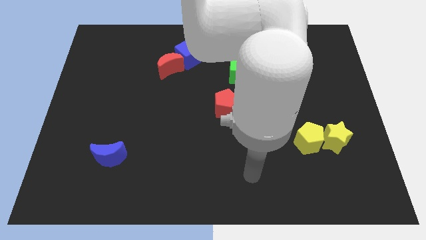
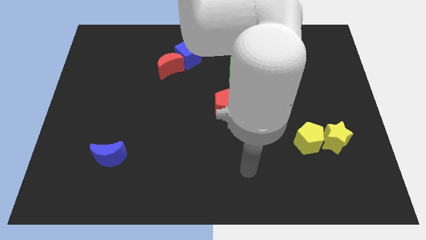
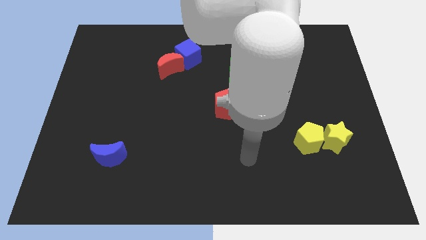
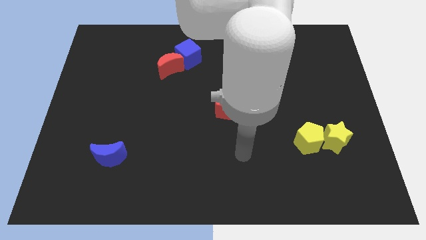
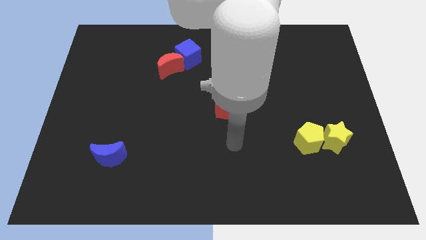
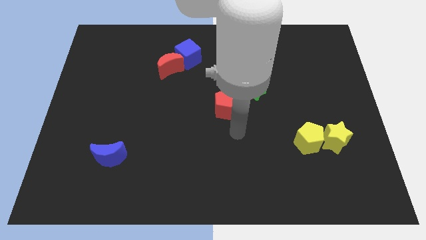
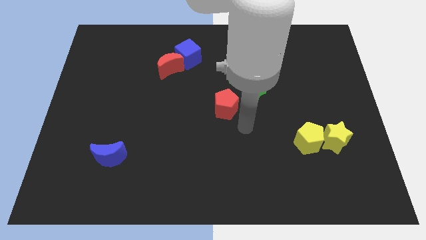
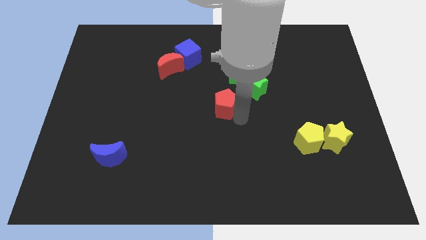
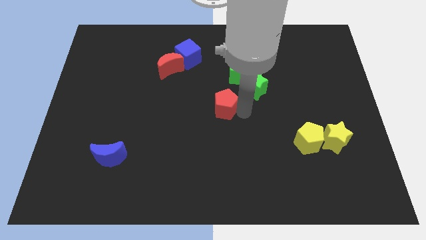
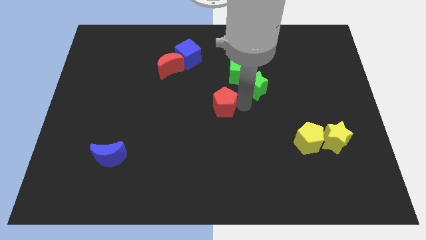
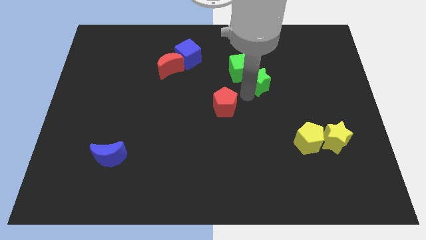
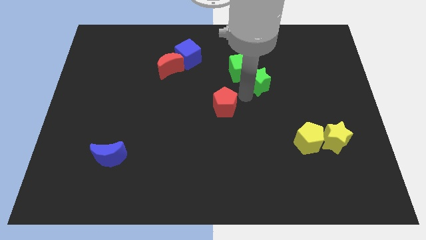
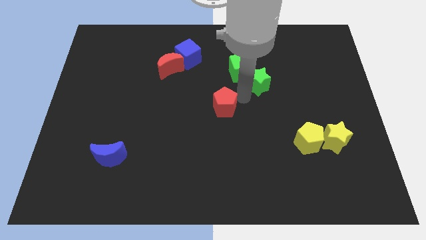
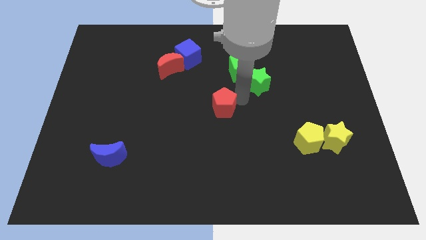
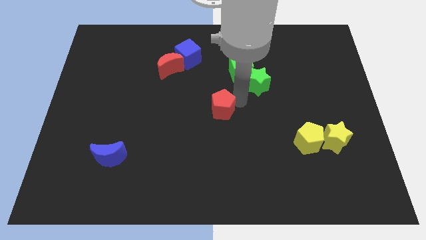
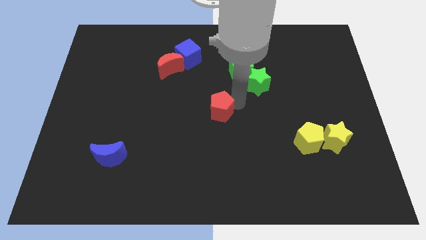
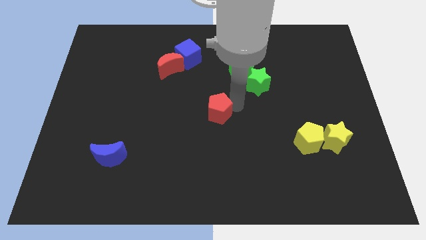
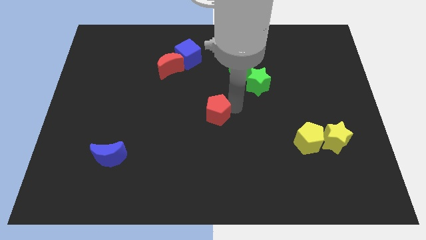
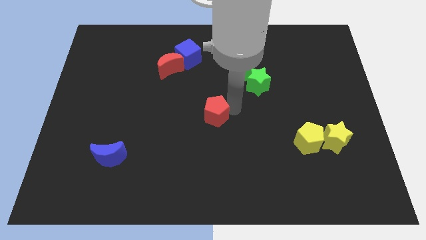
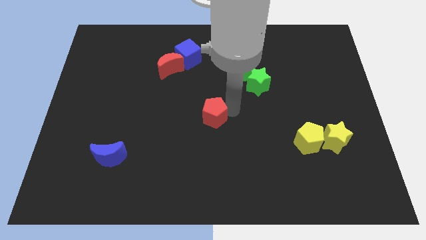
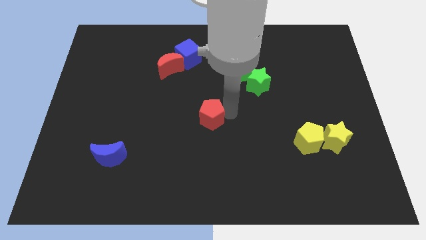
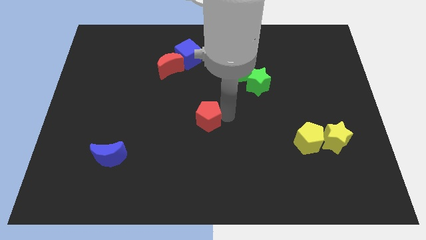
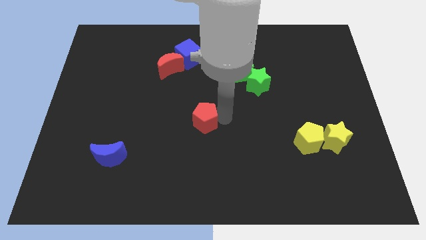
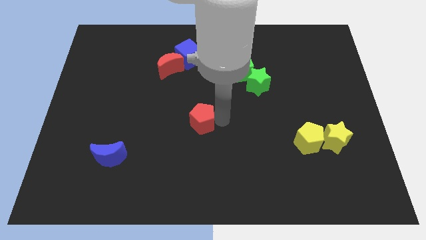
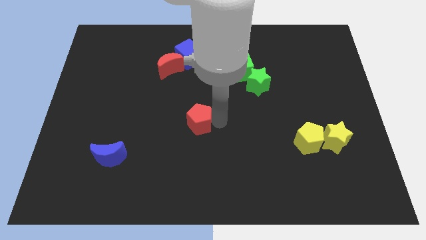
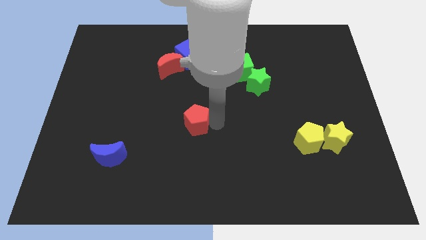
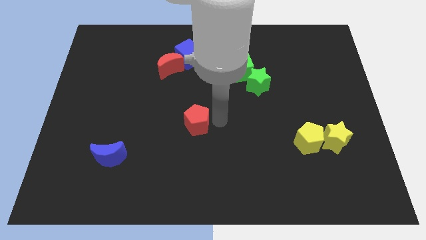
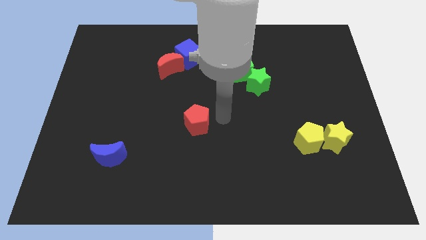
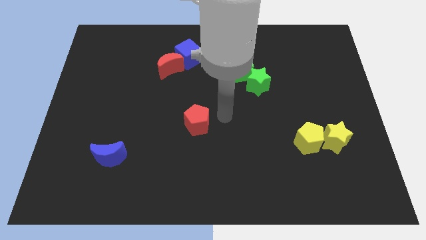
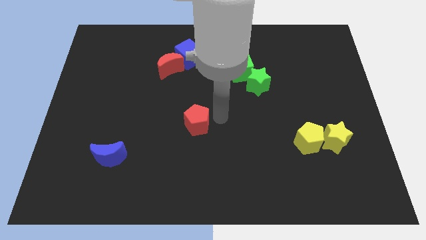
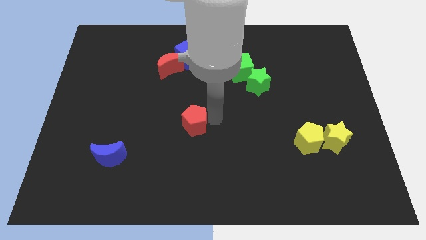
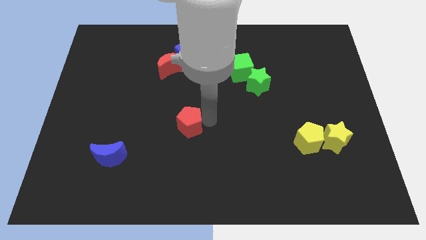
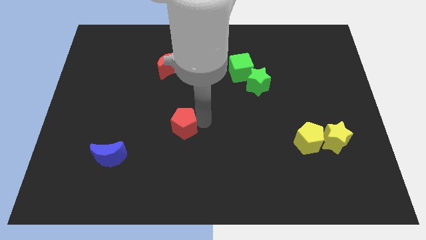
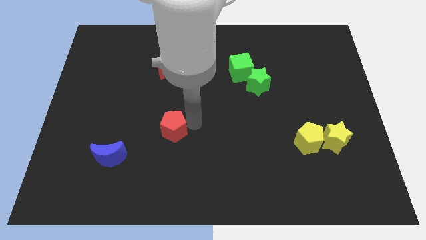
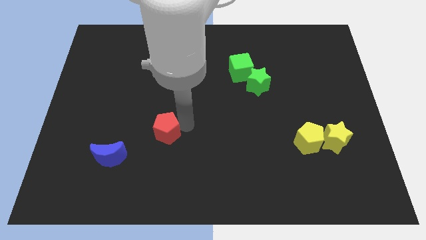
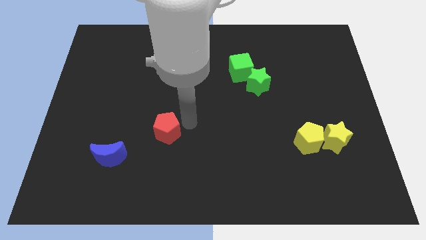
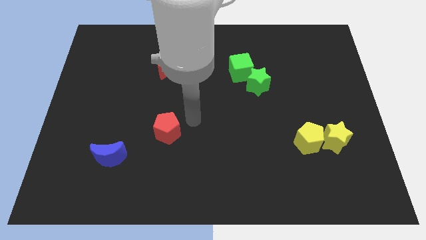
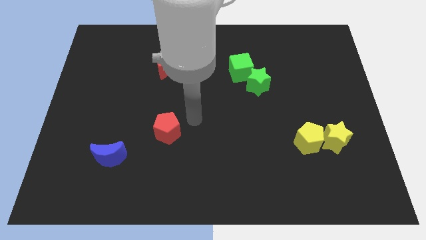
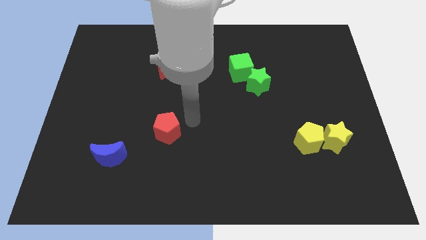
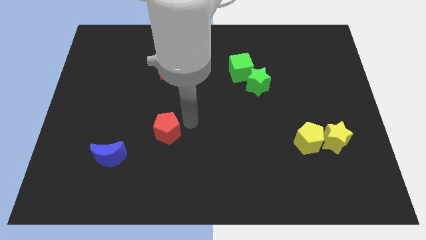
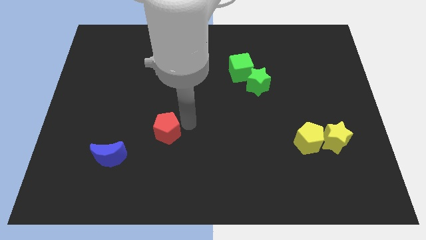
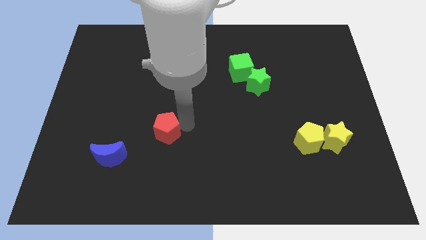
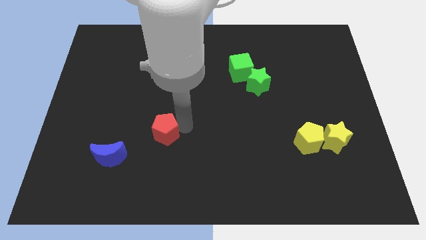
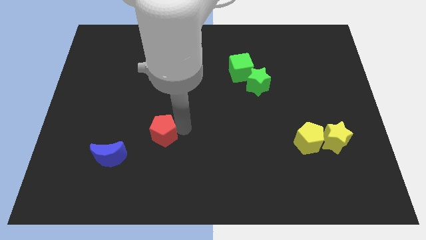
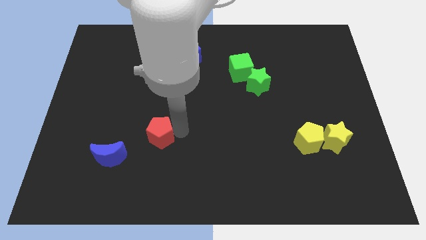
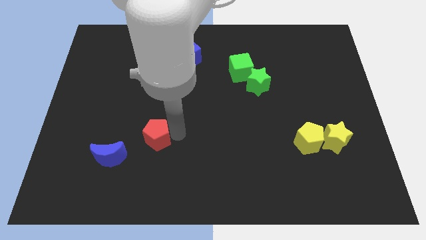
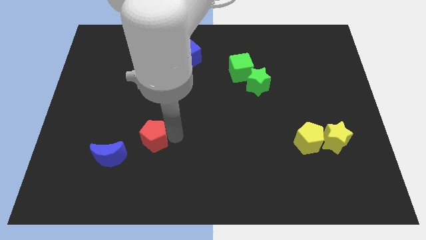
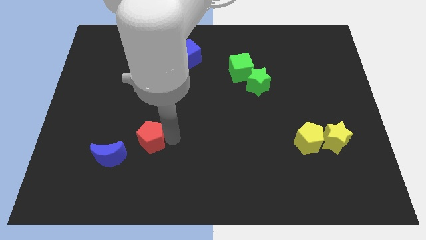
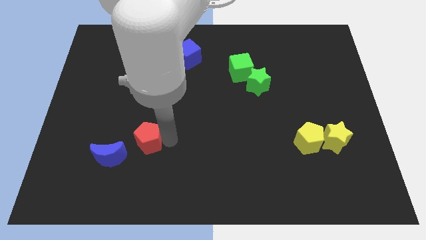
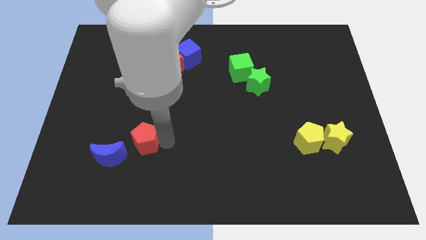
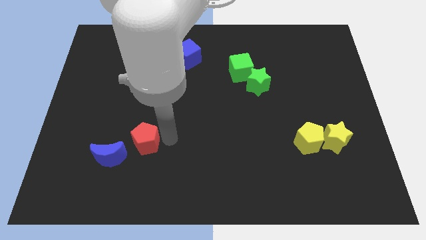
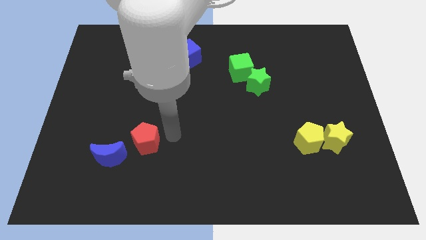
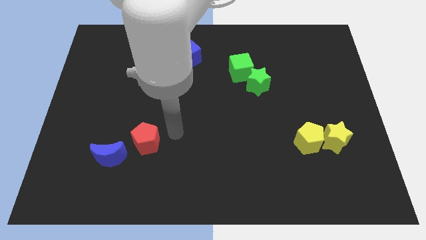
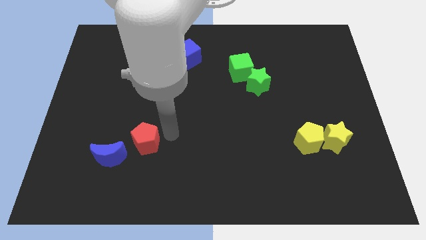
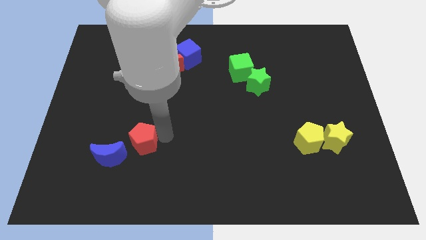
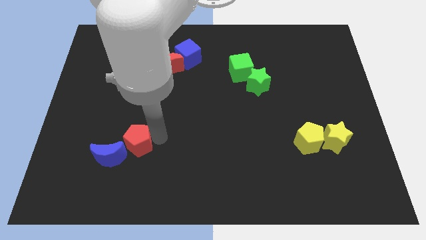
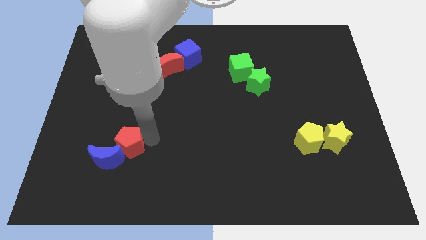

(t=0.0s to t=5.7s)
move the red pentagon close to the blue moon

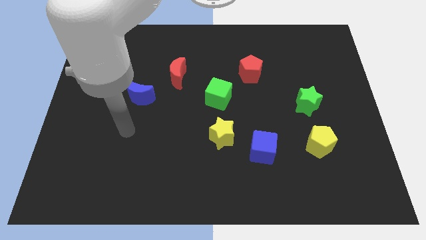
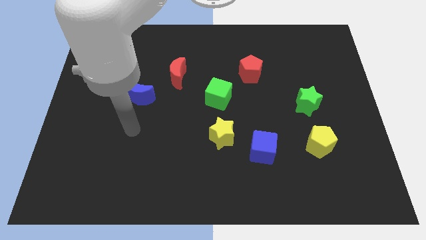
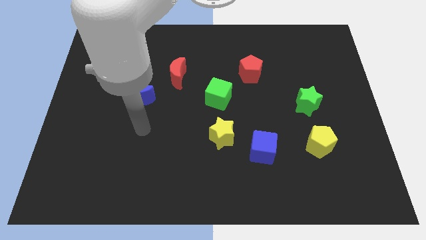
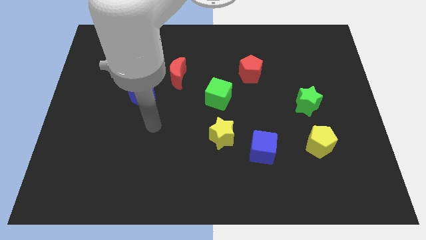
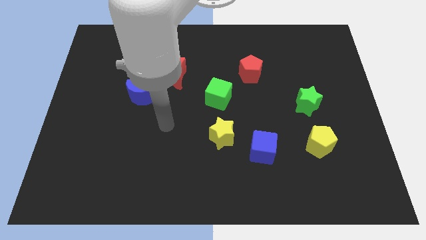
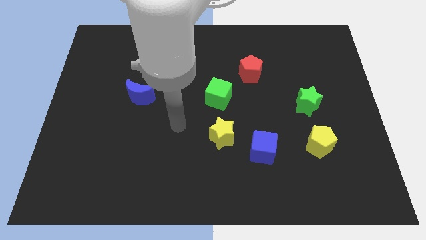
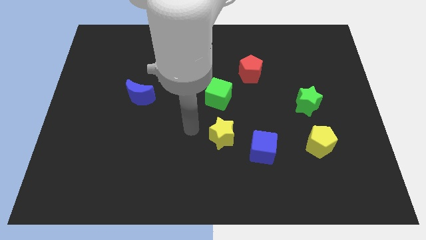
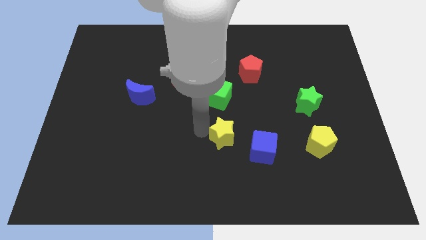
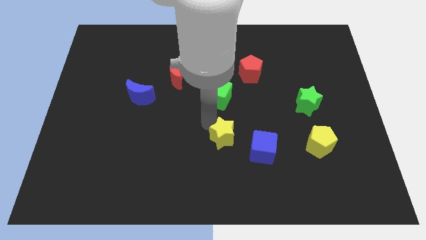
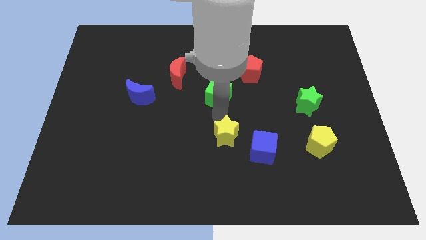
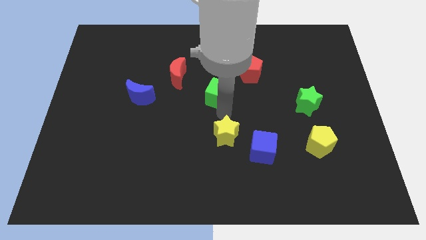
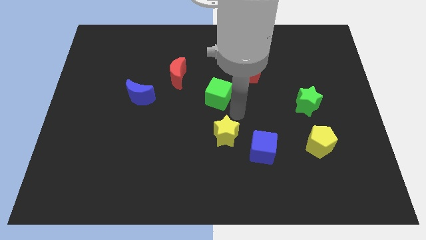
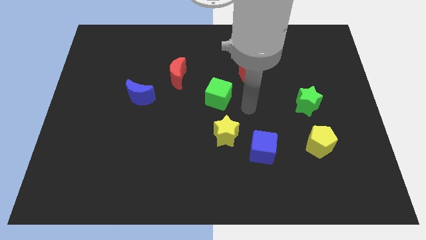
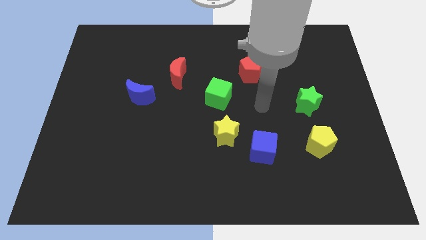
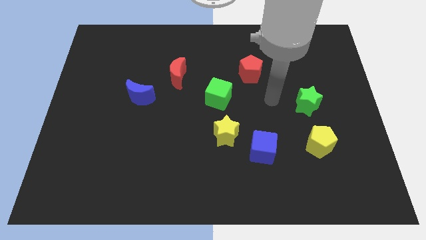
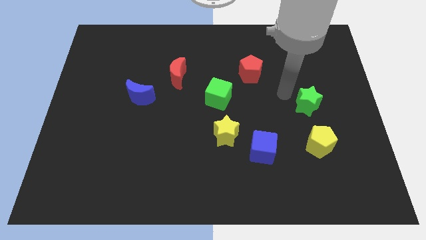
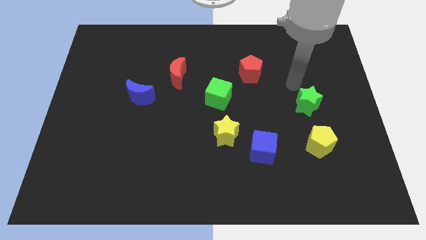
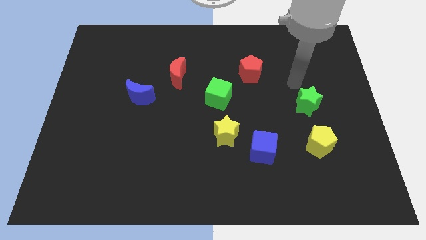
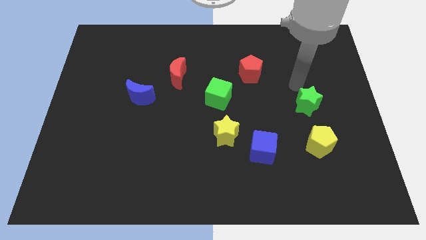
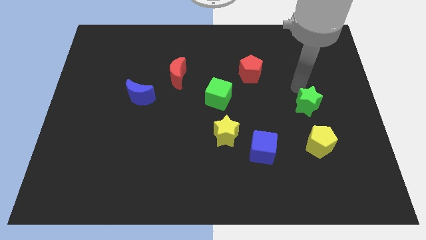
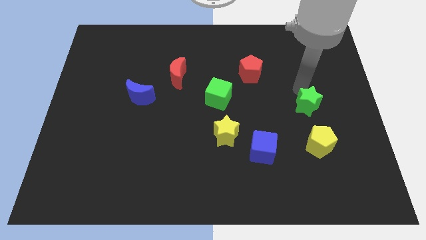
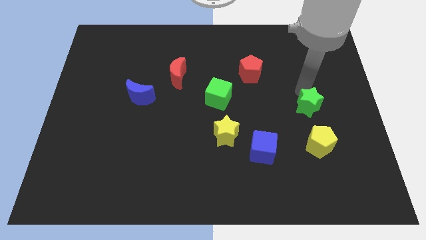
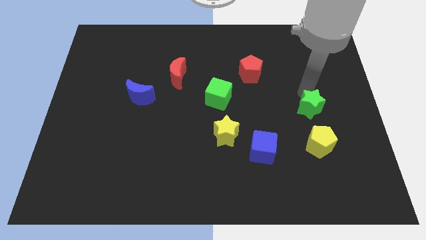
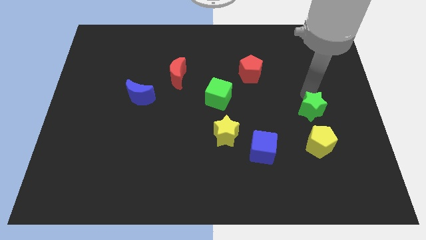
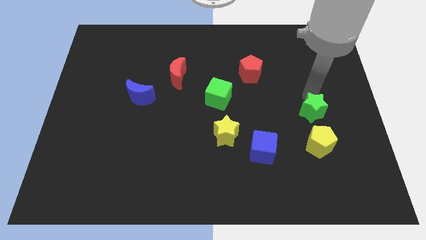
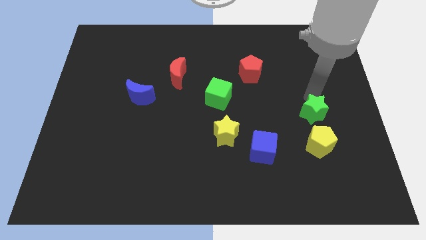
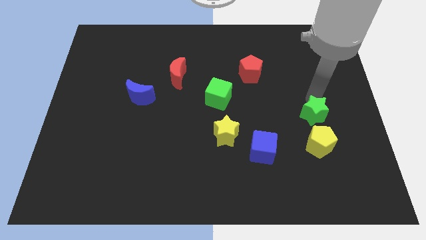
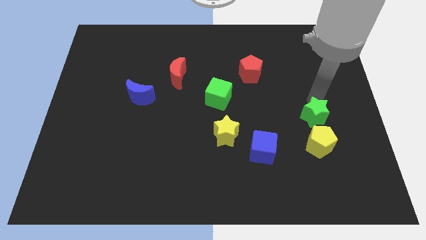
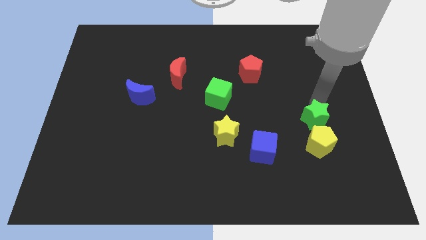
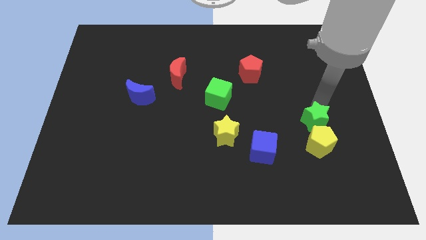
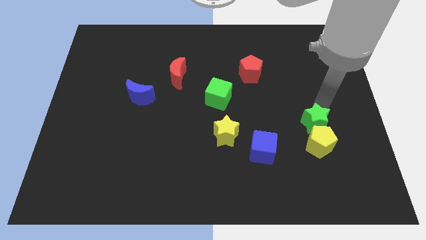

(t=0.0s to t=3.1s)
push the green star to the yellow pentagon
